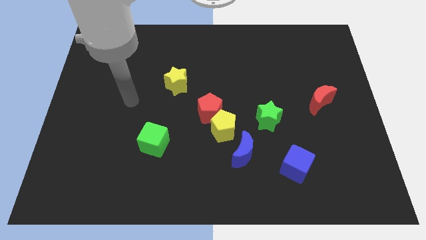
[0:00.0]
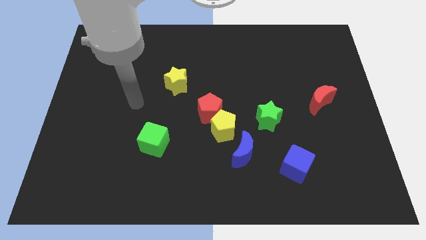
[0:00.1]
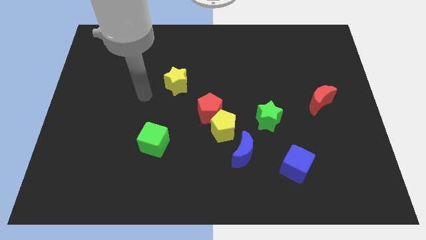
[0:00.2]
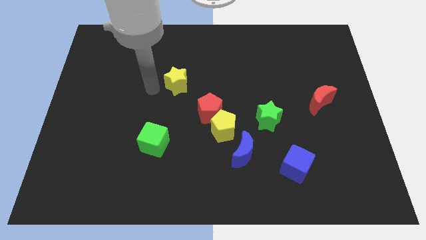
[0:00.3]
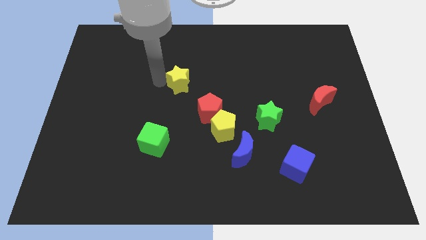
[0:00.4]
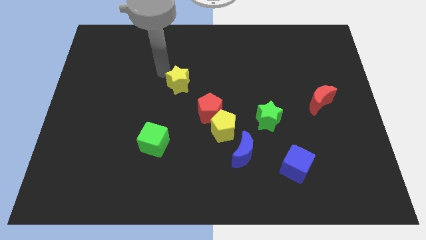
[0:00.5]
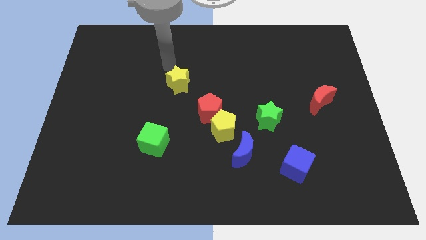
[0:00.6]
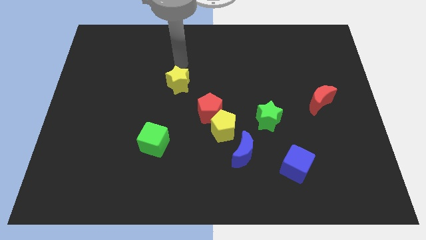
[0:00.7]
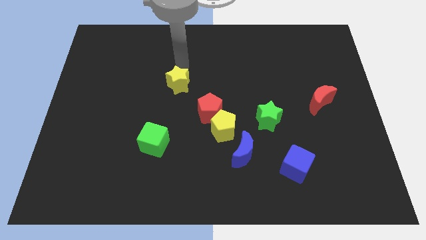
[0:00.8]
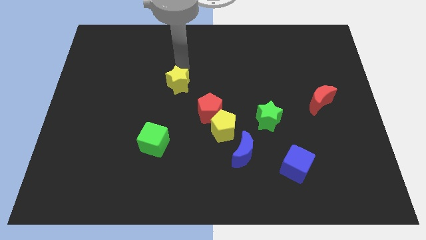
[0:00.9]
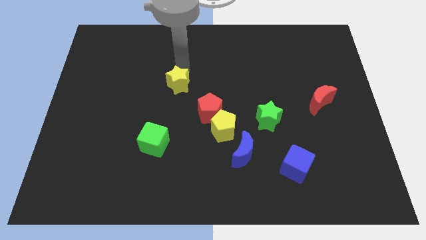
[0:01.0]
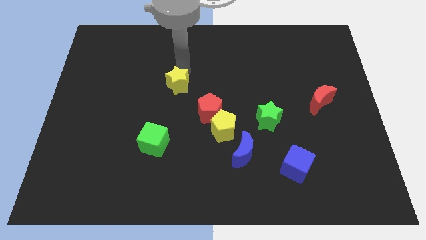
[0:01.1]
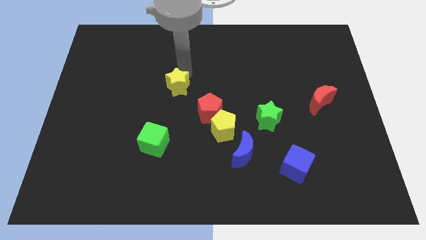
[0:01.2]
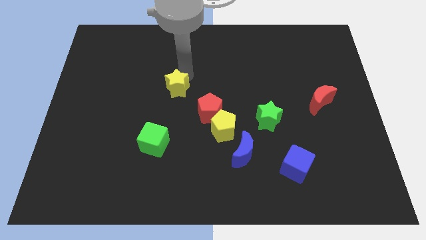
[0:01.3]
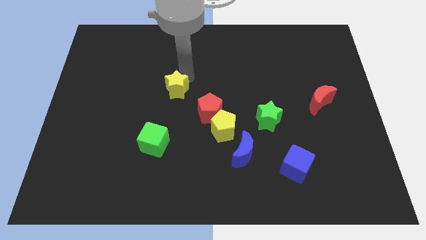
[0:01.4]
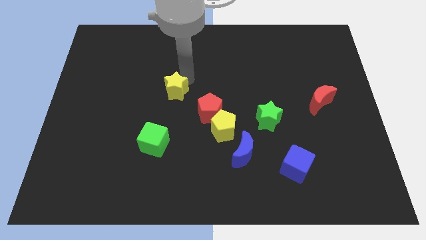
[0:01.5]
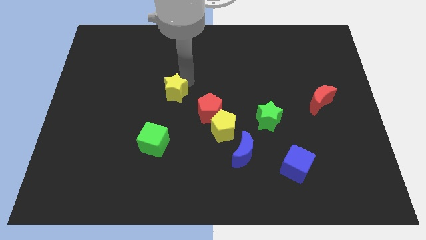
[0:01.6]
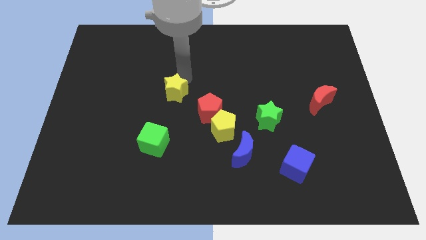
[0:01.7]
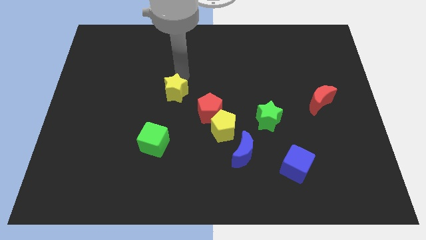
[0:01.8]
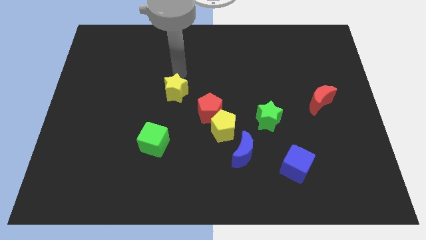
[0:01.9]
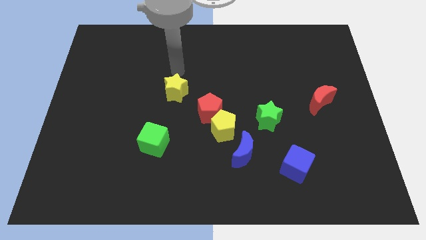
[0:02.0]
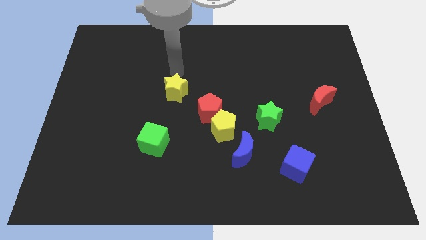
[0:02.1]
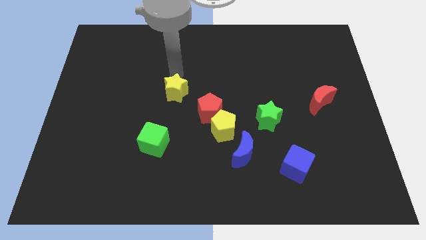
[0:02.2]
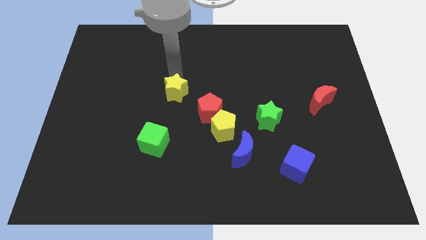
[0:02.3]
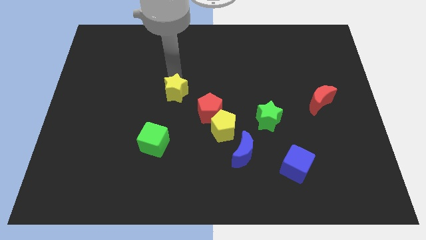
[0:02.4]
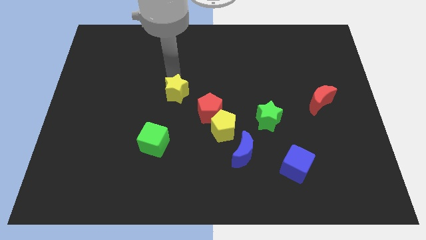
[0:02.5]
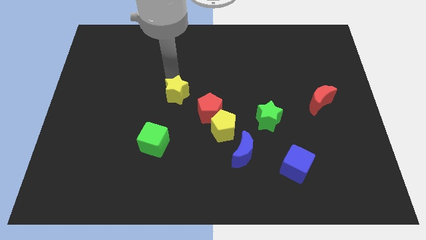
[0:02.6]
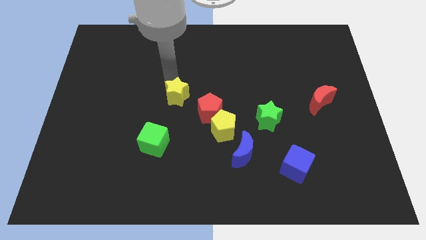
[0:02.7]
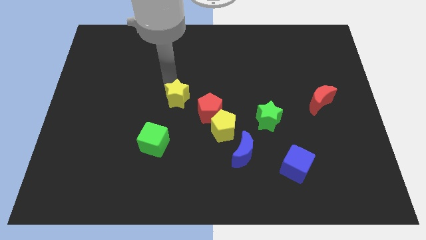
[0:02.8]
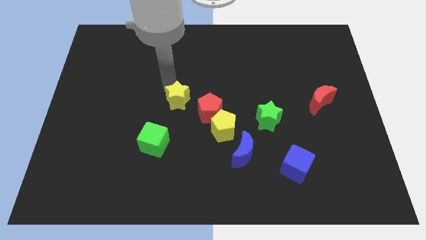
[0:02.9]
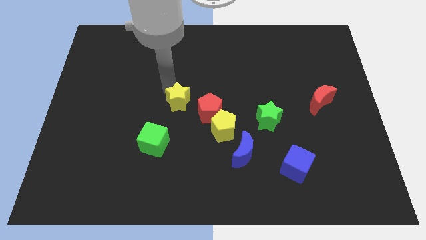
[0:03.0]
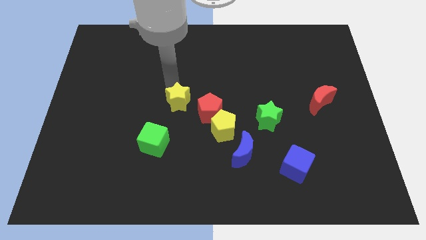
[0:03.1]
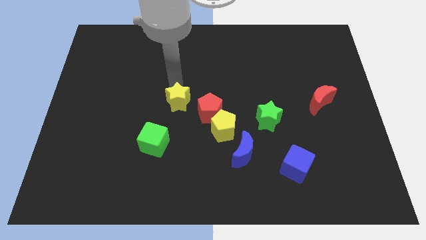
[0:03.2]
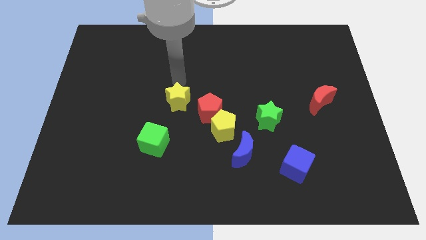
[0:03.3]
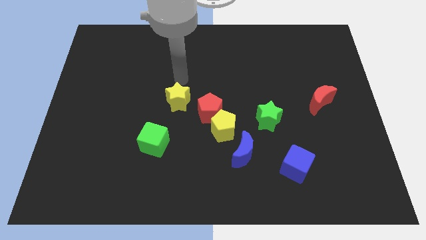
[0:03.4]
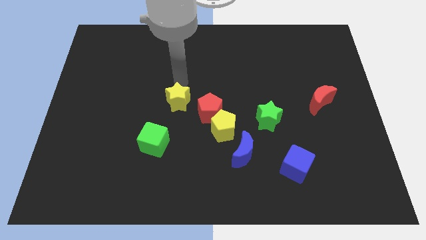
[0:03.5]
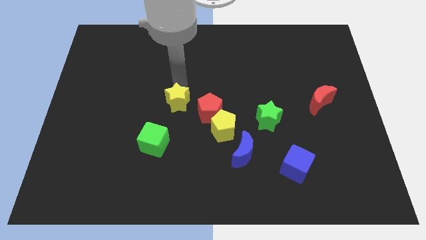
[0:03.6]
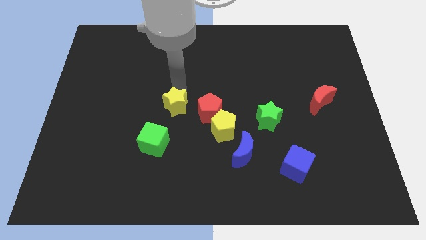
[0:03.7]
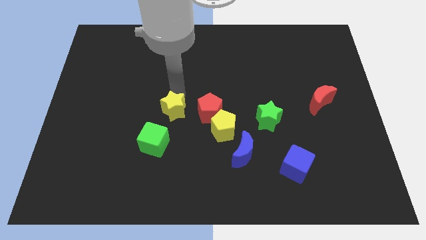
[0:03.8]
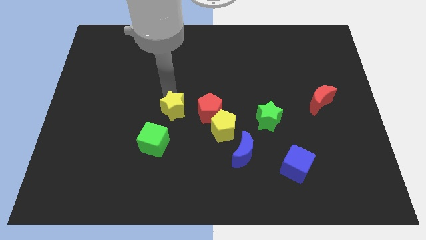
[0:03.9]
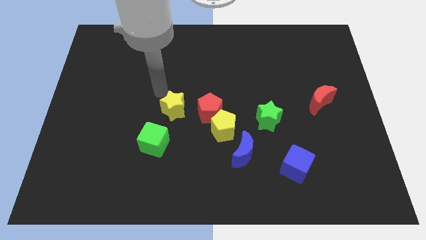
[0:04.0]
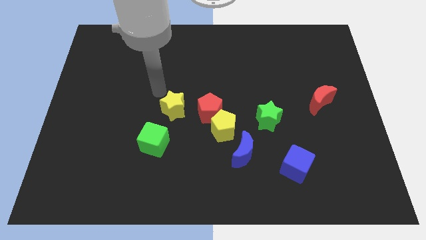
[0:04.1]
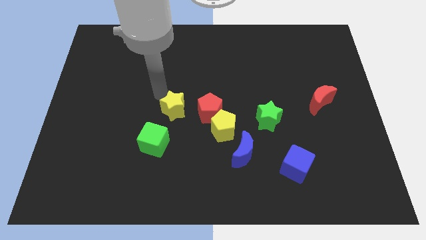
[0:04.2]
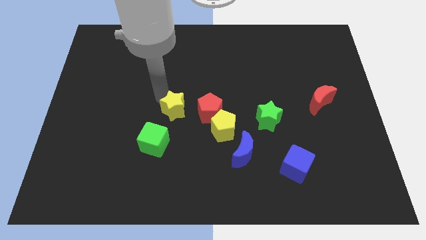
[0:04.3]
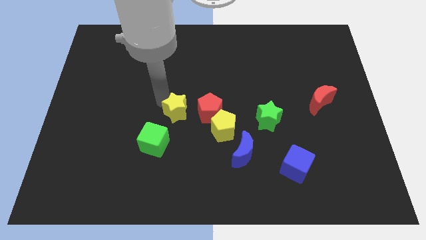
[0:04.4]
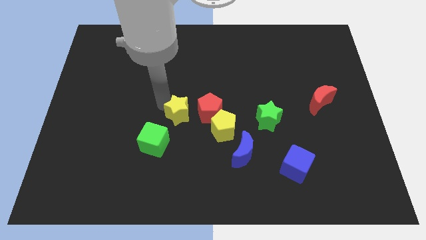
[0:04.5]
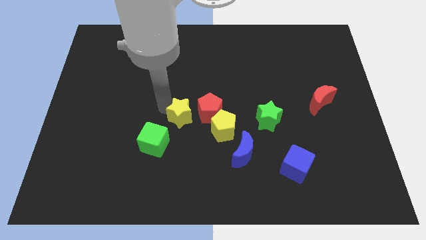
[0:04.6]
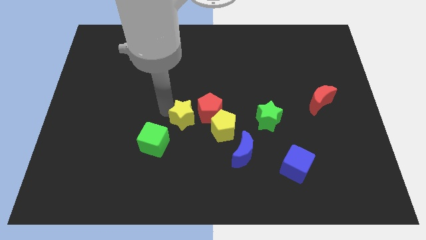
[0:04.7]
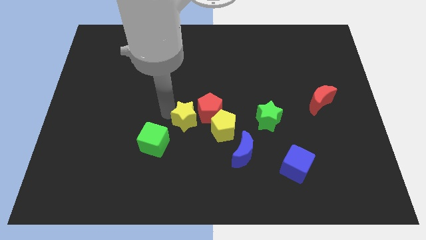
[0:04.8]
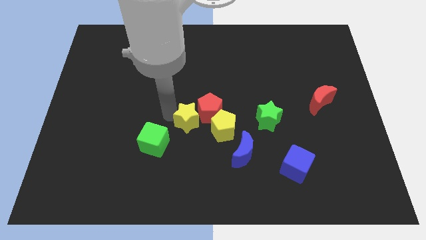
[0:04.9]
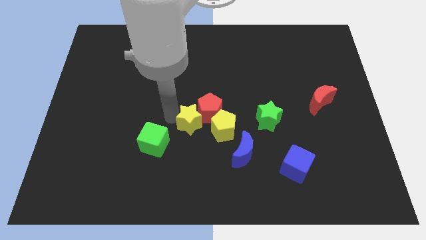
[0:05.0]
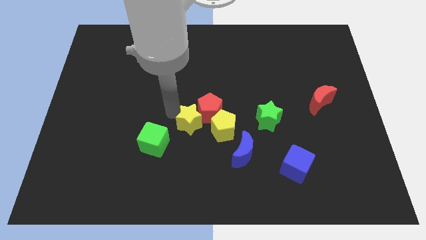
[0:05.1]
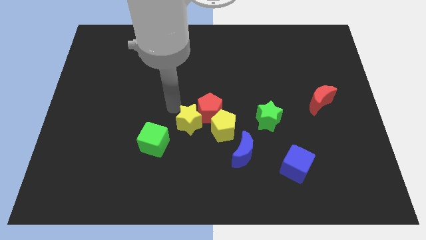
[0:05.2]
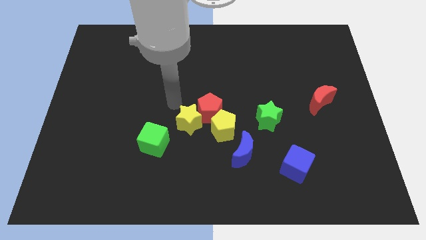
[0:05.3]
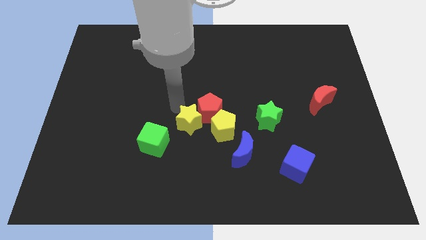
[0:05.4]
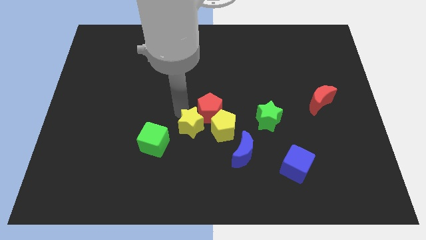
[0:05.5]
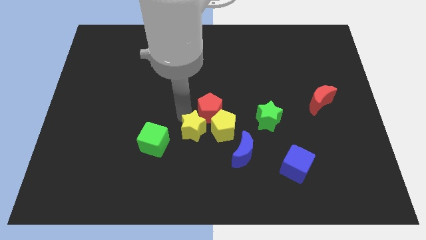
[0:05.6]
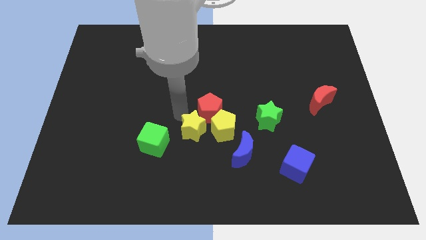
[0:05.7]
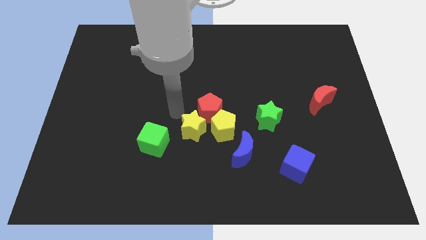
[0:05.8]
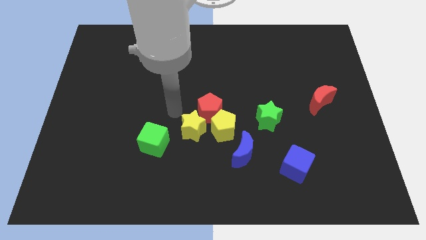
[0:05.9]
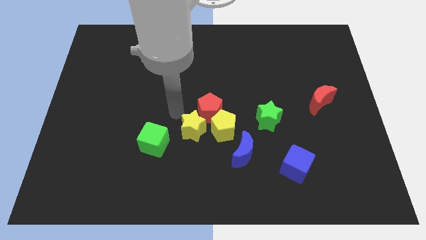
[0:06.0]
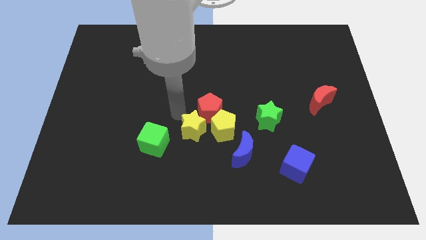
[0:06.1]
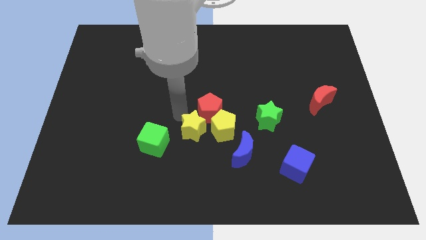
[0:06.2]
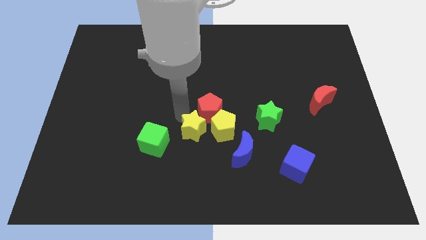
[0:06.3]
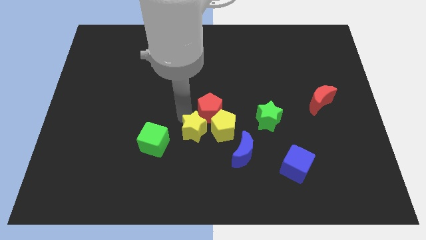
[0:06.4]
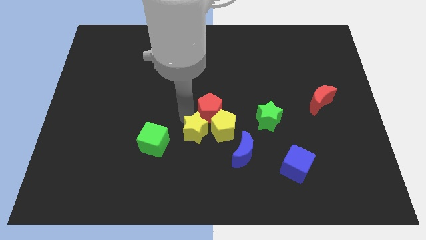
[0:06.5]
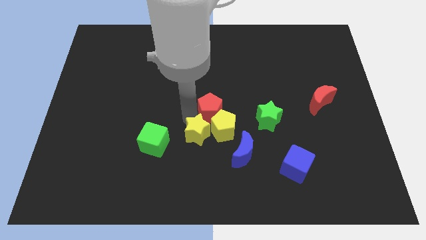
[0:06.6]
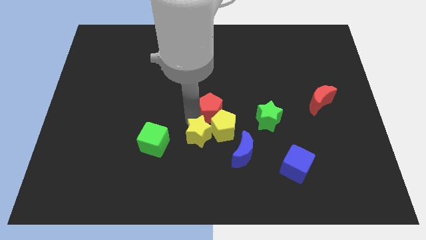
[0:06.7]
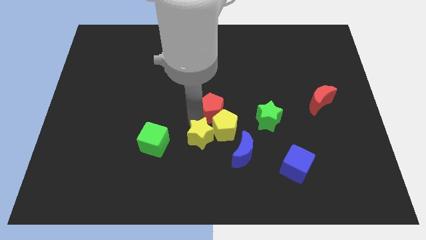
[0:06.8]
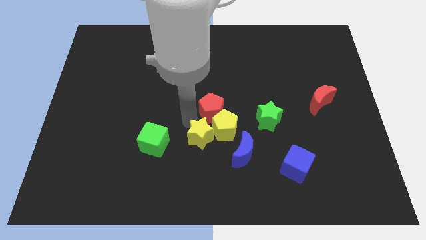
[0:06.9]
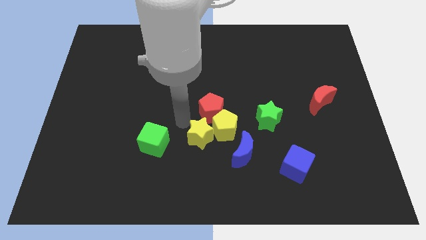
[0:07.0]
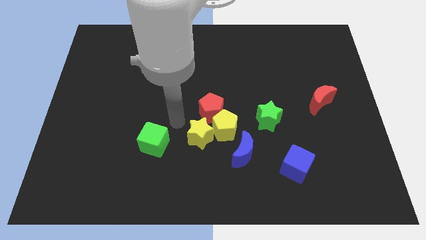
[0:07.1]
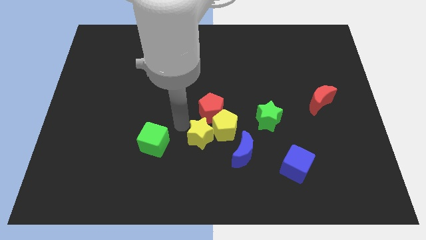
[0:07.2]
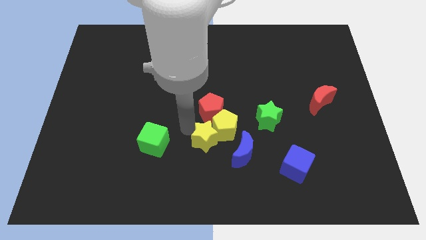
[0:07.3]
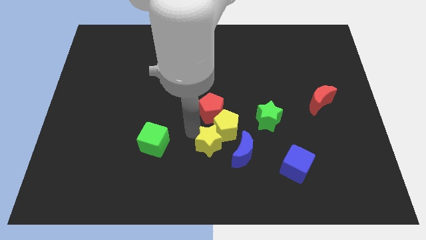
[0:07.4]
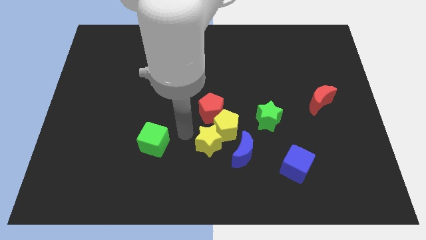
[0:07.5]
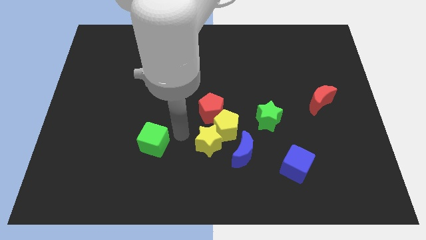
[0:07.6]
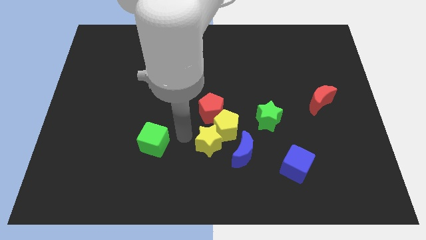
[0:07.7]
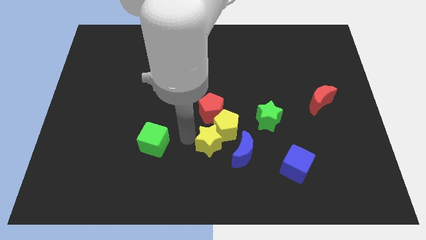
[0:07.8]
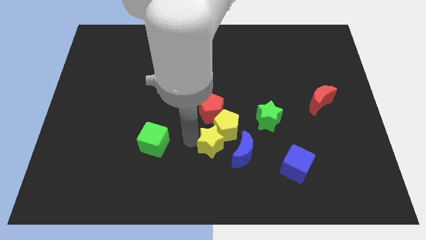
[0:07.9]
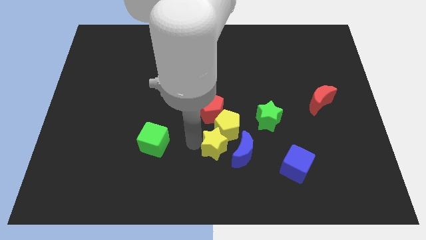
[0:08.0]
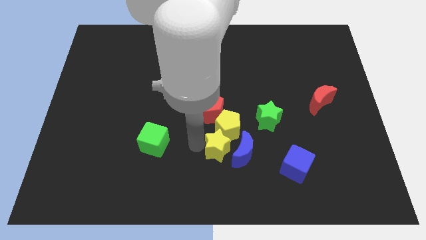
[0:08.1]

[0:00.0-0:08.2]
put the yellow star close to the blue moon
